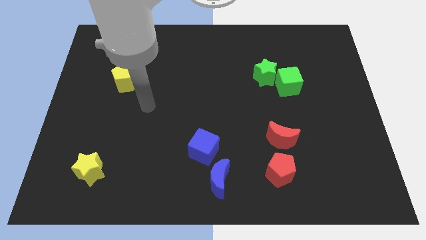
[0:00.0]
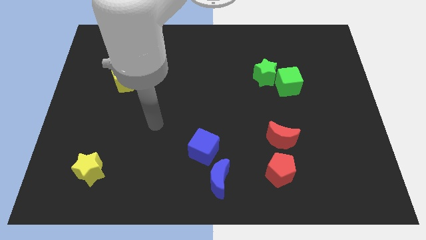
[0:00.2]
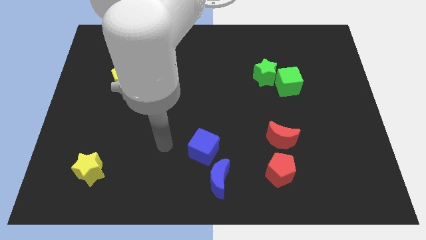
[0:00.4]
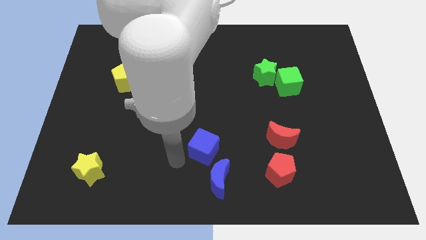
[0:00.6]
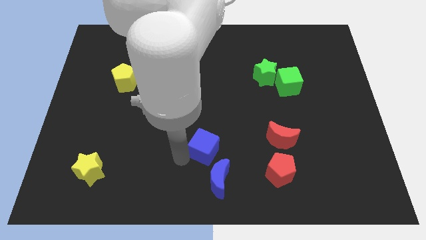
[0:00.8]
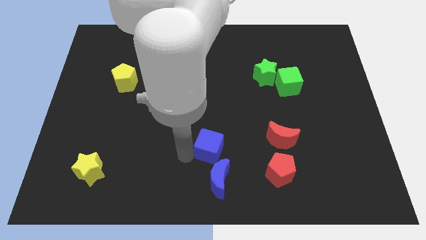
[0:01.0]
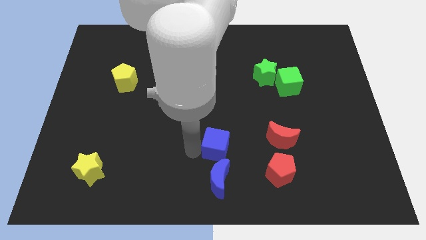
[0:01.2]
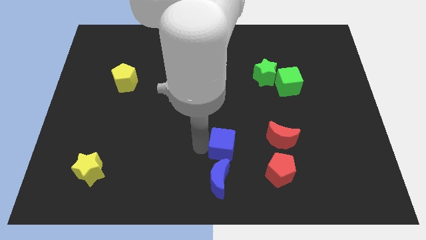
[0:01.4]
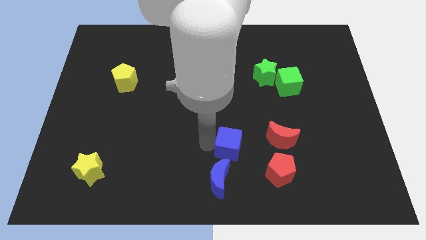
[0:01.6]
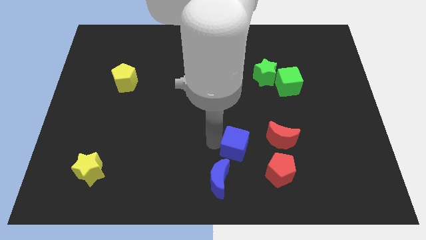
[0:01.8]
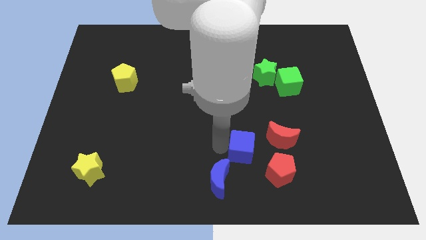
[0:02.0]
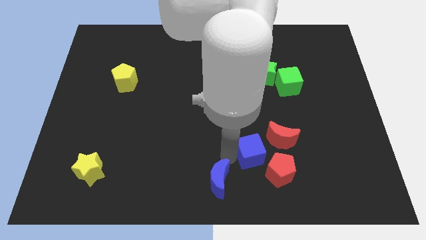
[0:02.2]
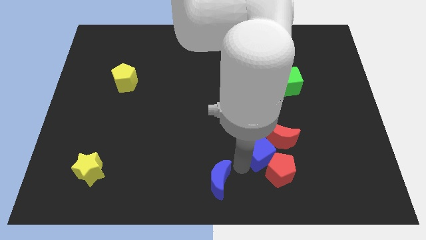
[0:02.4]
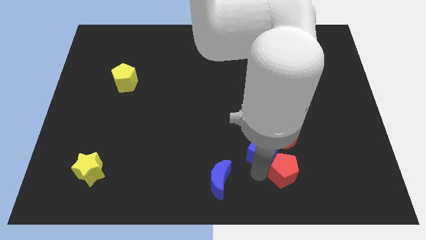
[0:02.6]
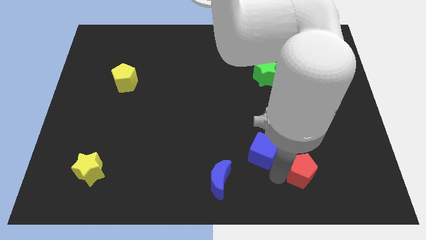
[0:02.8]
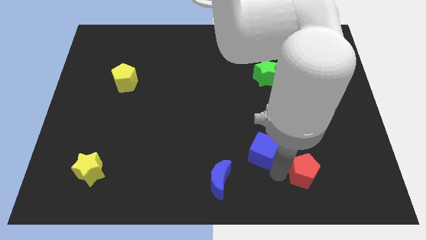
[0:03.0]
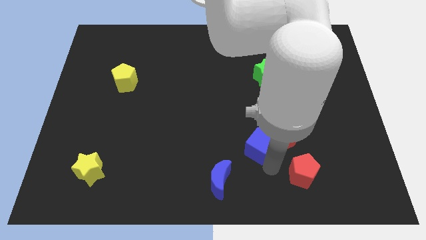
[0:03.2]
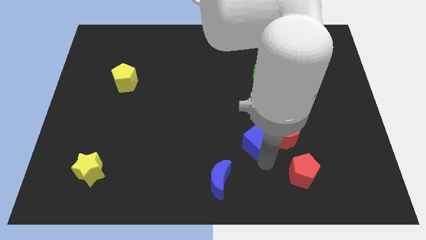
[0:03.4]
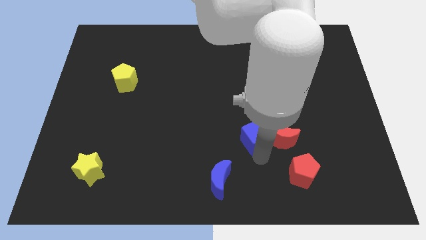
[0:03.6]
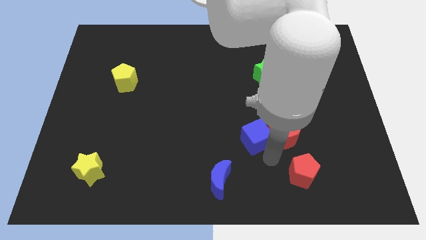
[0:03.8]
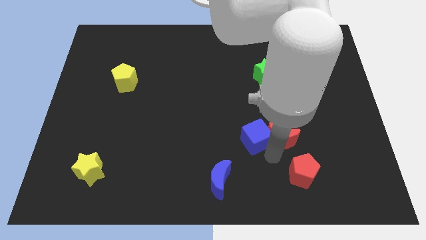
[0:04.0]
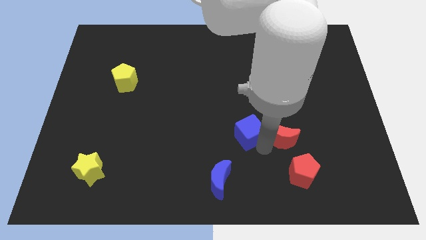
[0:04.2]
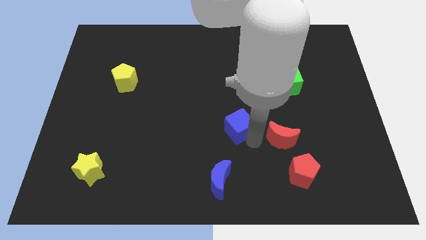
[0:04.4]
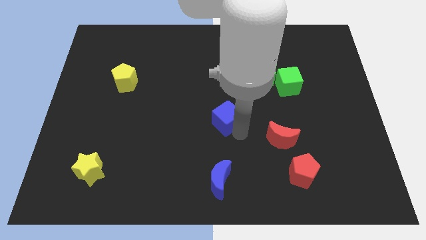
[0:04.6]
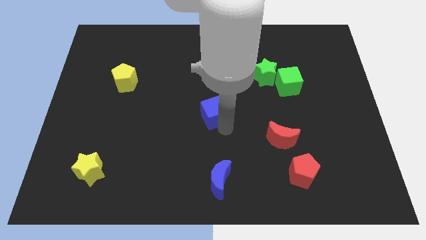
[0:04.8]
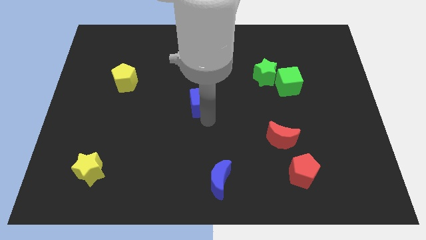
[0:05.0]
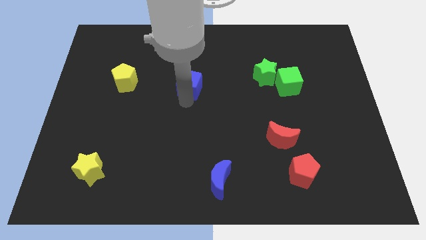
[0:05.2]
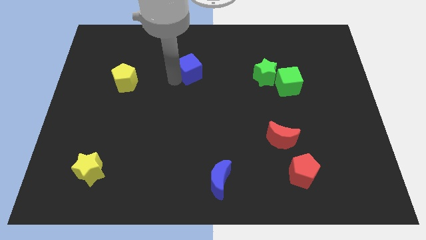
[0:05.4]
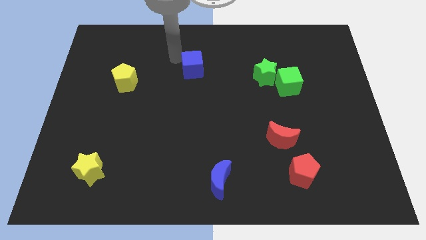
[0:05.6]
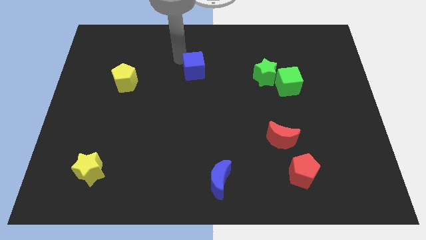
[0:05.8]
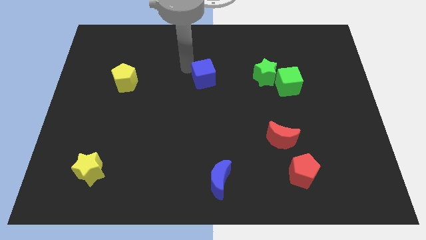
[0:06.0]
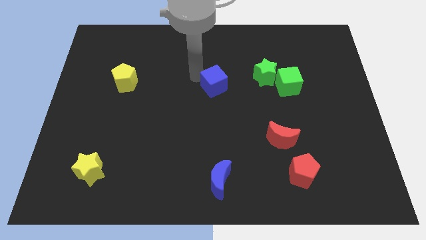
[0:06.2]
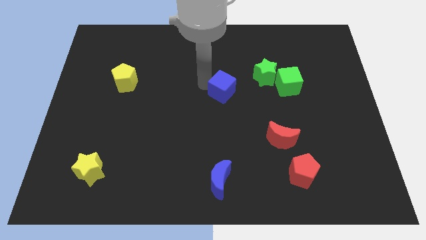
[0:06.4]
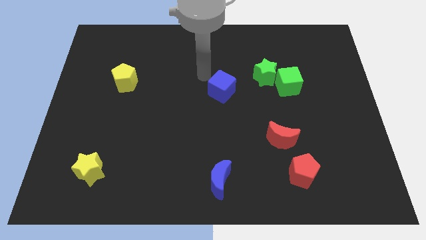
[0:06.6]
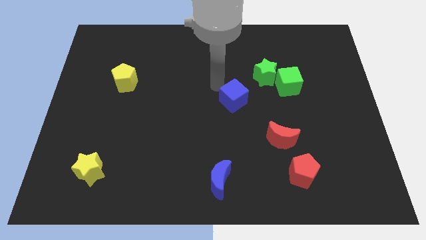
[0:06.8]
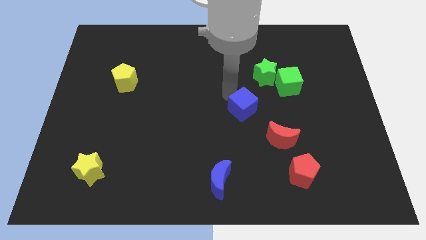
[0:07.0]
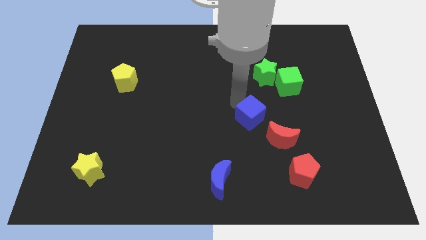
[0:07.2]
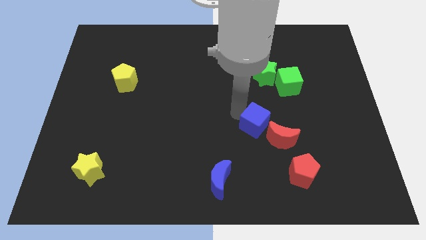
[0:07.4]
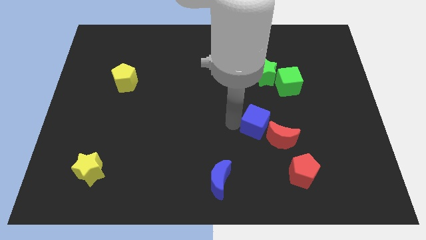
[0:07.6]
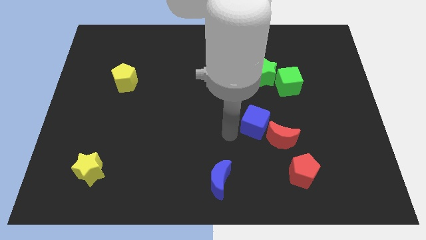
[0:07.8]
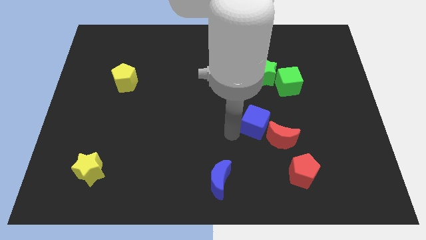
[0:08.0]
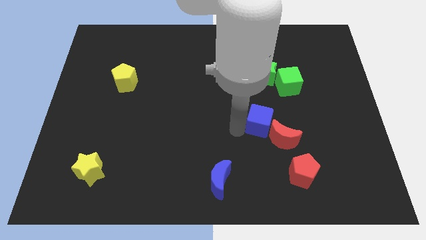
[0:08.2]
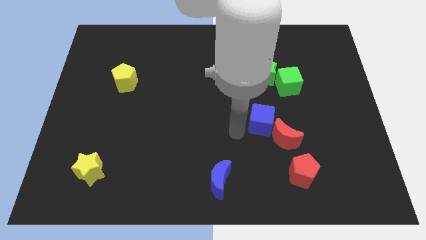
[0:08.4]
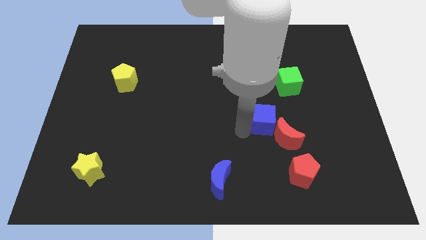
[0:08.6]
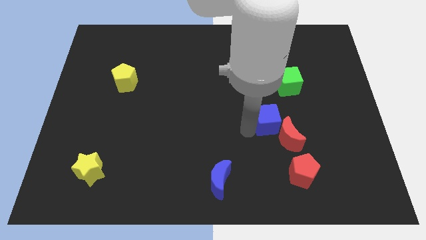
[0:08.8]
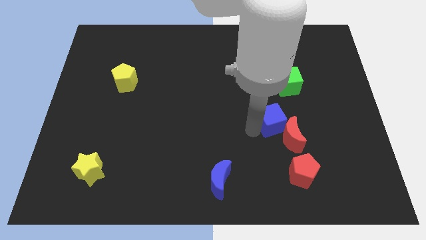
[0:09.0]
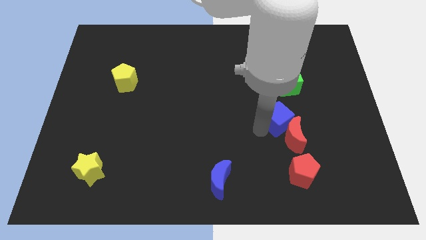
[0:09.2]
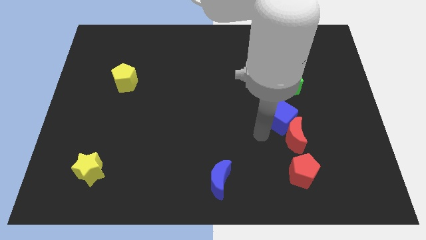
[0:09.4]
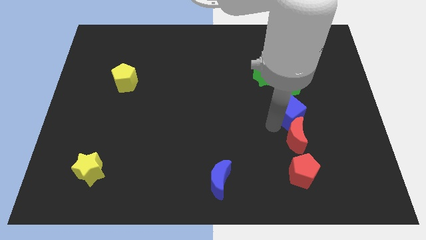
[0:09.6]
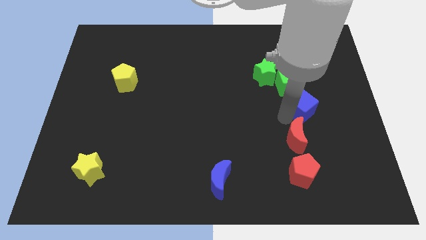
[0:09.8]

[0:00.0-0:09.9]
push the blue cube upwards and then right

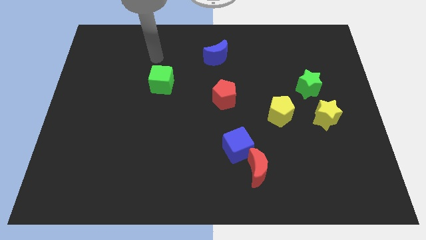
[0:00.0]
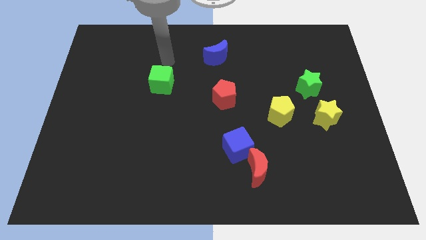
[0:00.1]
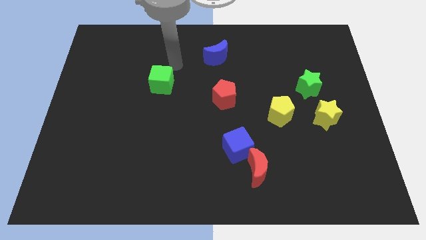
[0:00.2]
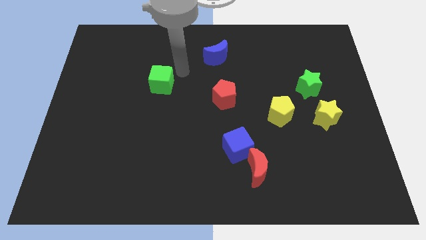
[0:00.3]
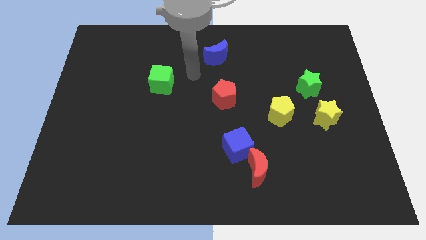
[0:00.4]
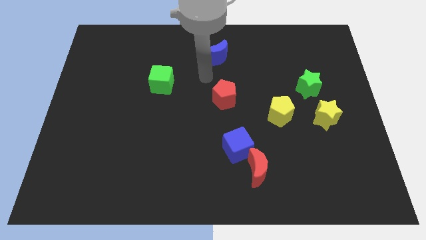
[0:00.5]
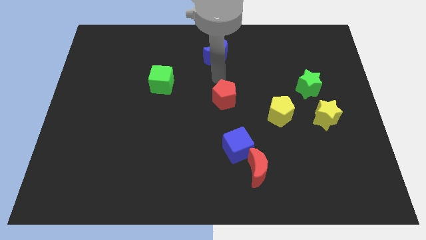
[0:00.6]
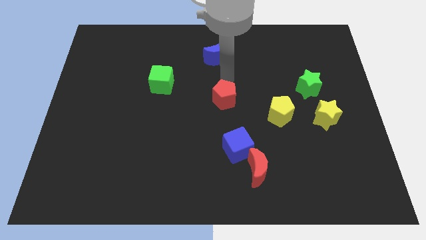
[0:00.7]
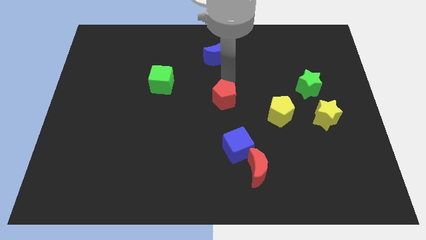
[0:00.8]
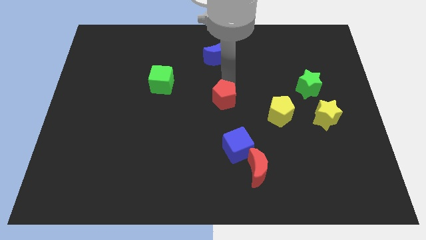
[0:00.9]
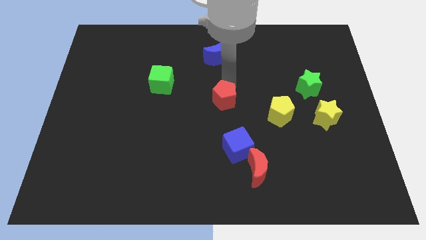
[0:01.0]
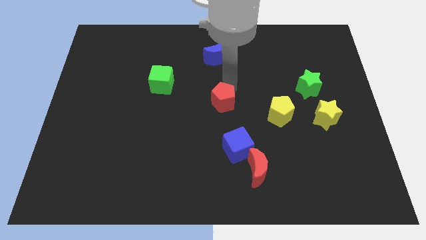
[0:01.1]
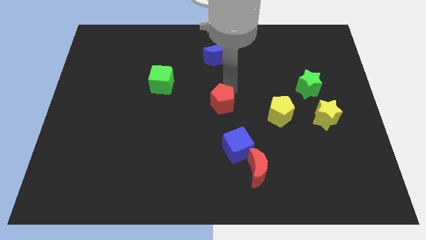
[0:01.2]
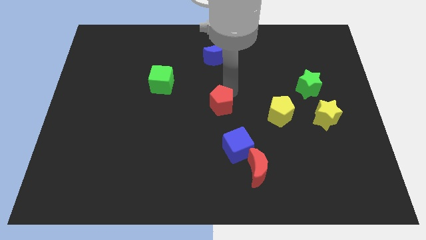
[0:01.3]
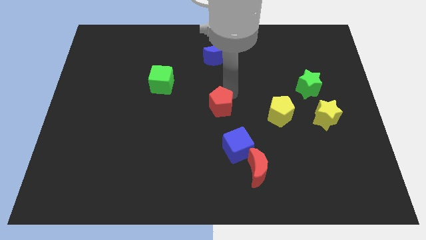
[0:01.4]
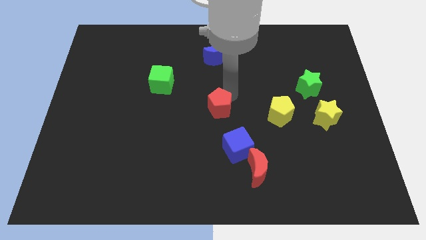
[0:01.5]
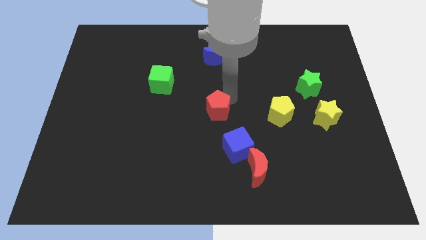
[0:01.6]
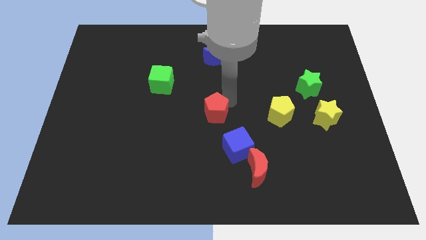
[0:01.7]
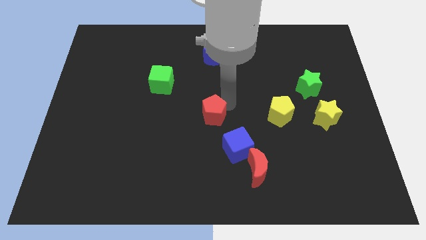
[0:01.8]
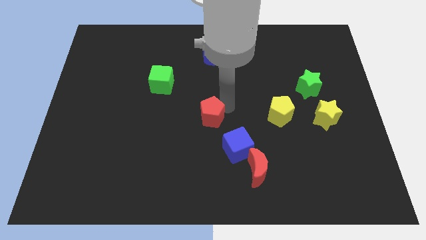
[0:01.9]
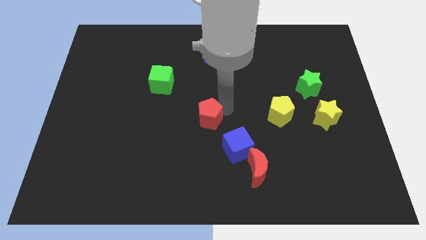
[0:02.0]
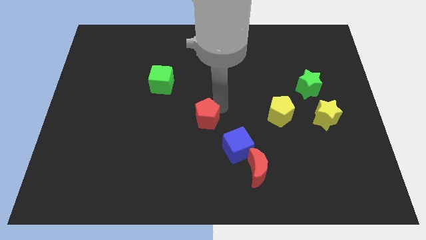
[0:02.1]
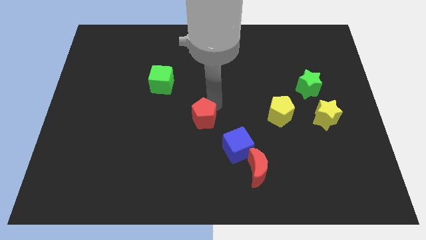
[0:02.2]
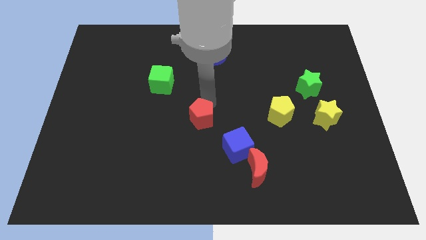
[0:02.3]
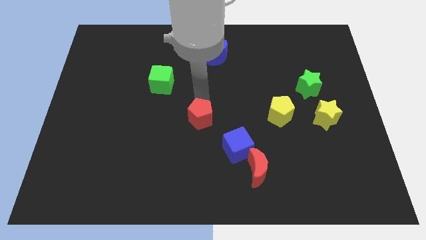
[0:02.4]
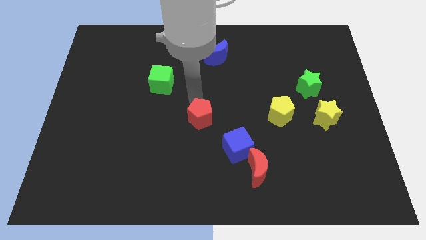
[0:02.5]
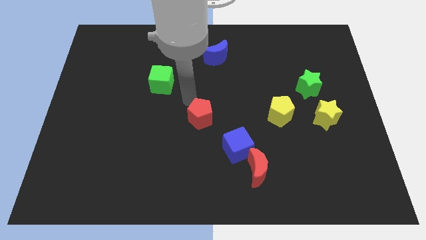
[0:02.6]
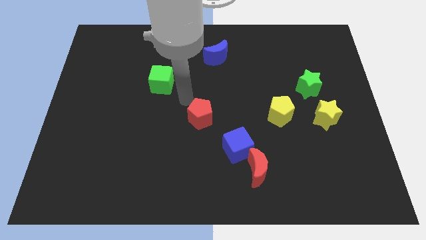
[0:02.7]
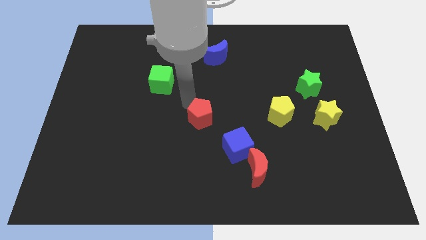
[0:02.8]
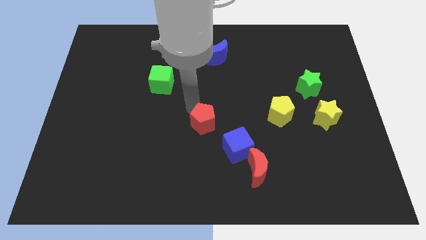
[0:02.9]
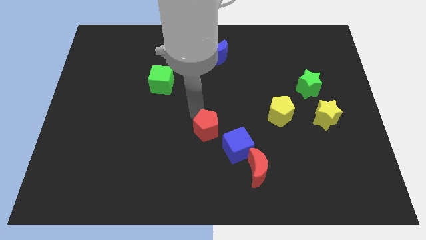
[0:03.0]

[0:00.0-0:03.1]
slightly slide the red pentagon downwards

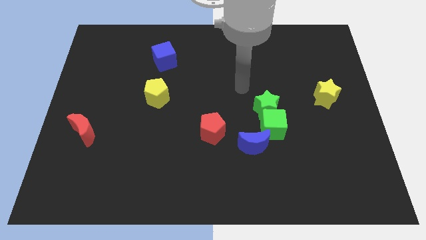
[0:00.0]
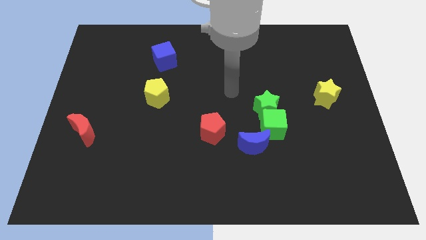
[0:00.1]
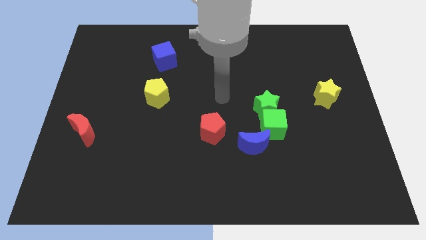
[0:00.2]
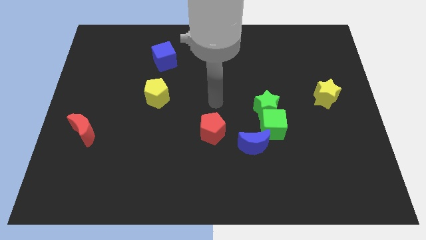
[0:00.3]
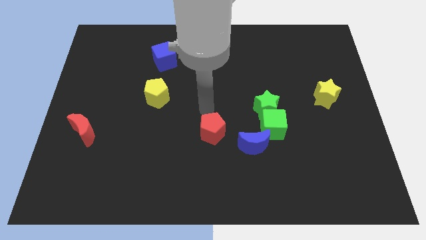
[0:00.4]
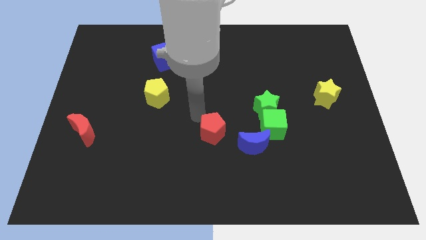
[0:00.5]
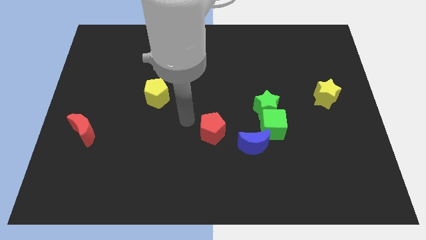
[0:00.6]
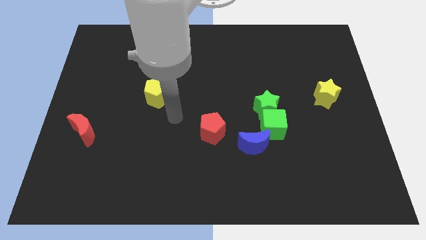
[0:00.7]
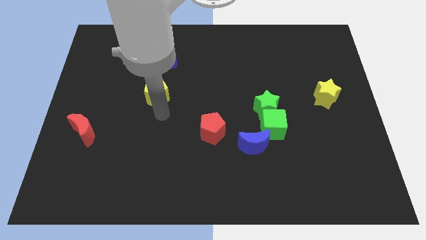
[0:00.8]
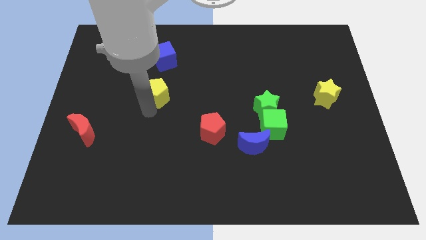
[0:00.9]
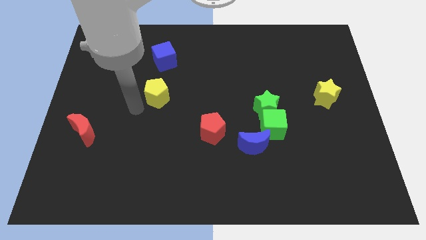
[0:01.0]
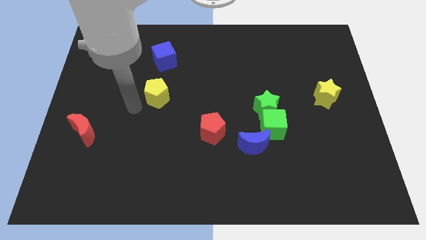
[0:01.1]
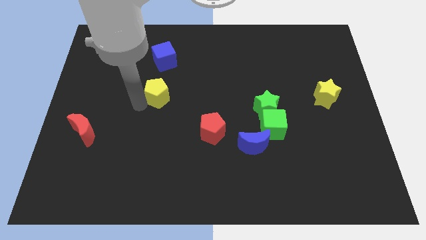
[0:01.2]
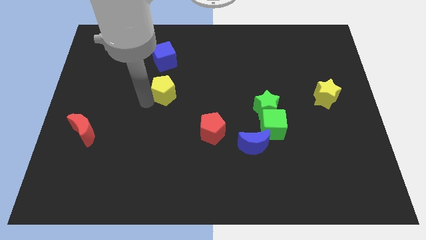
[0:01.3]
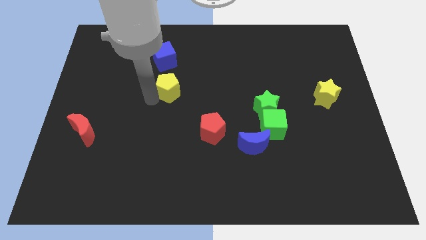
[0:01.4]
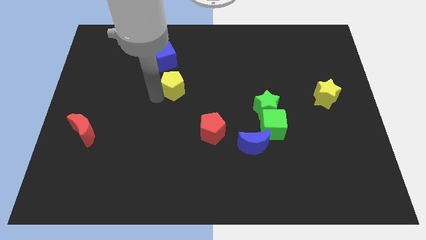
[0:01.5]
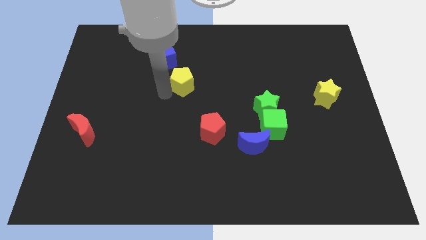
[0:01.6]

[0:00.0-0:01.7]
slightly slide the yellow pentagon up and right diagonally
